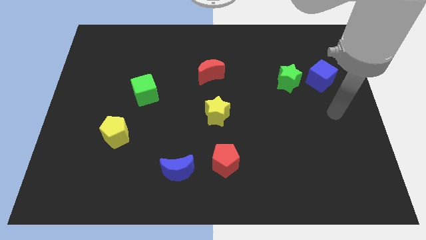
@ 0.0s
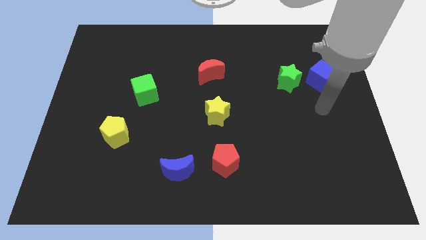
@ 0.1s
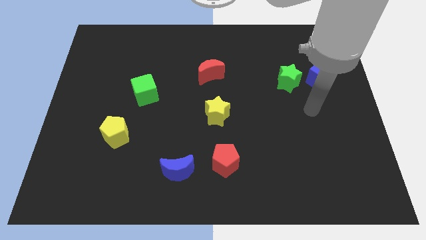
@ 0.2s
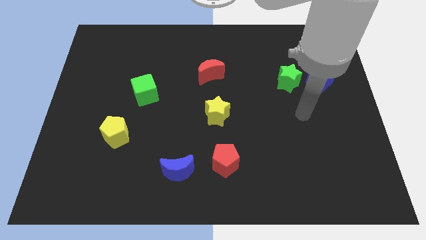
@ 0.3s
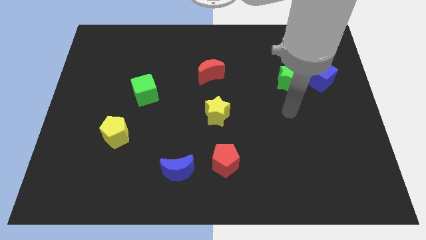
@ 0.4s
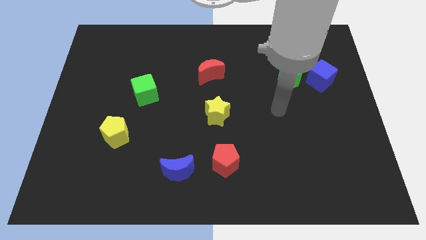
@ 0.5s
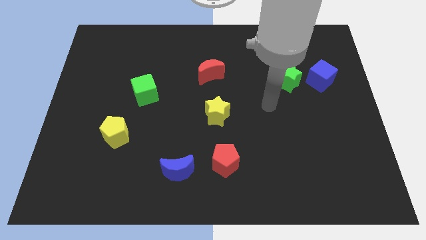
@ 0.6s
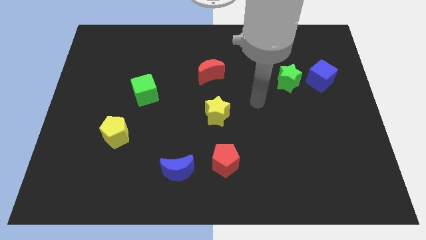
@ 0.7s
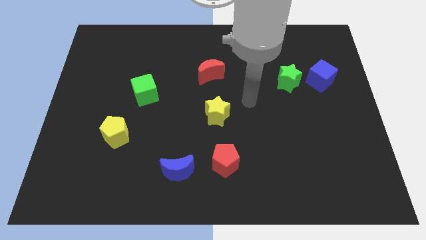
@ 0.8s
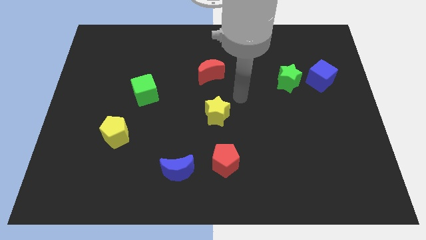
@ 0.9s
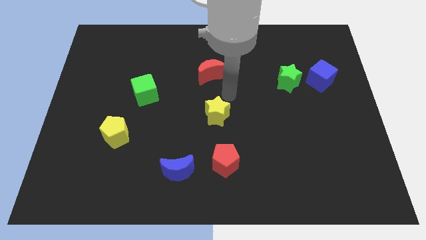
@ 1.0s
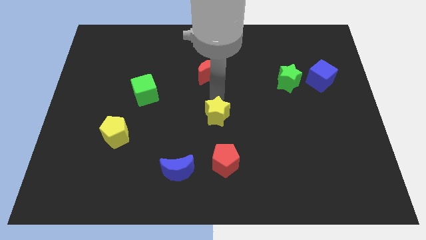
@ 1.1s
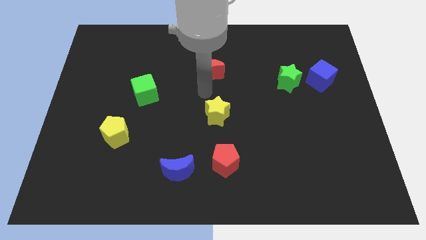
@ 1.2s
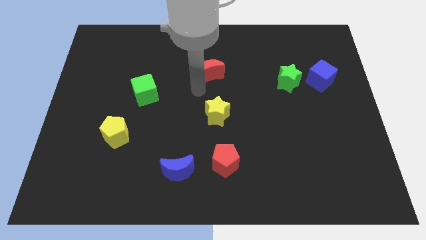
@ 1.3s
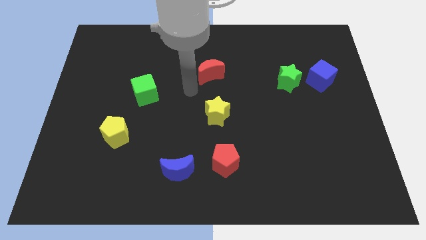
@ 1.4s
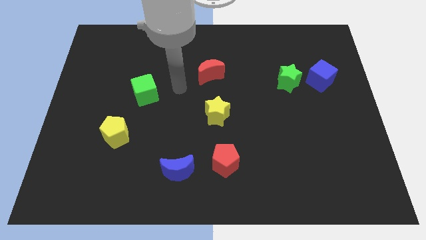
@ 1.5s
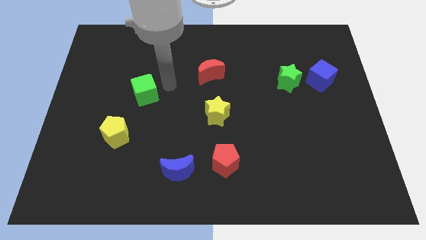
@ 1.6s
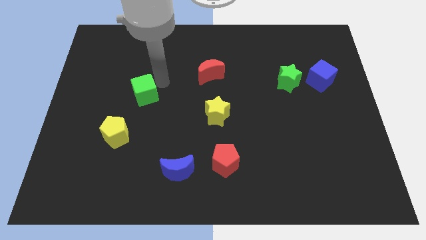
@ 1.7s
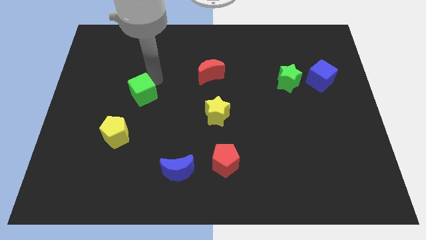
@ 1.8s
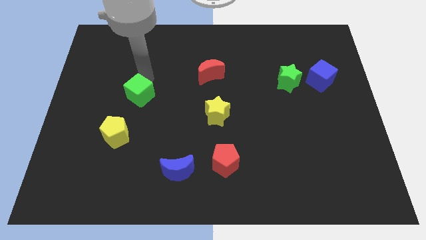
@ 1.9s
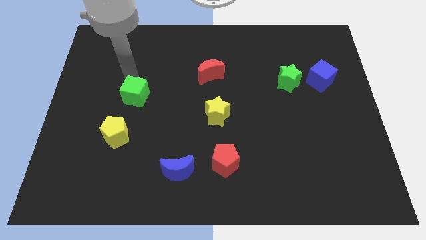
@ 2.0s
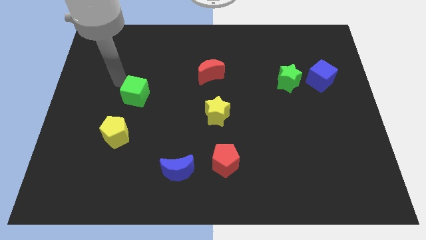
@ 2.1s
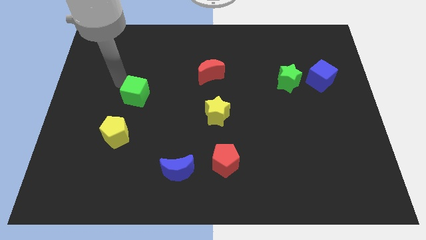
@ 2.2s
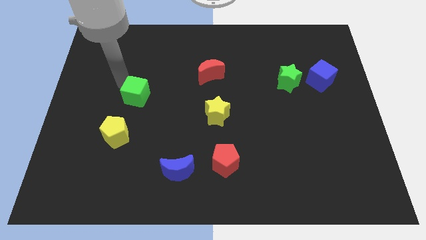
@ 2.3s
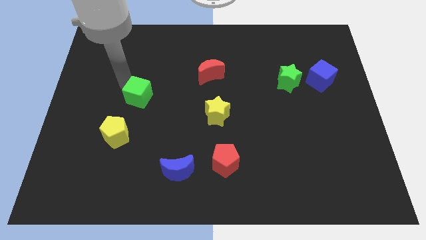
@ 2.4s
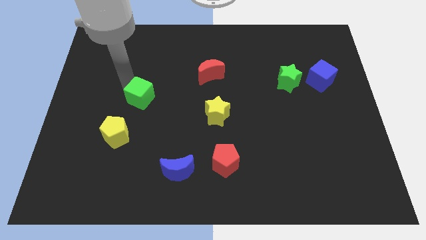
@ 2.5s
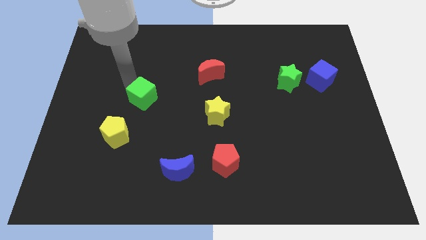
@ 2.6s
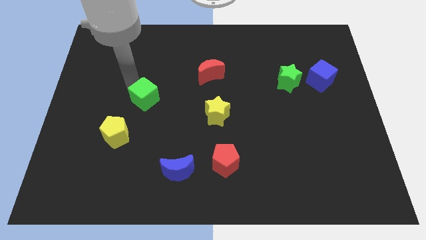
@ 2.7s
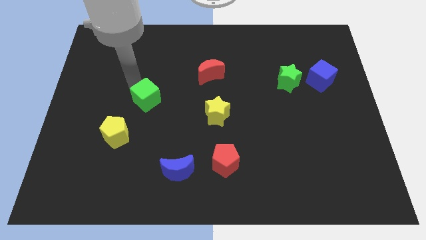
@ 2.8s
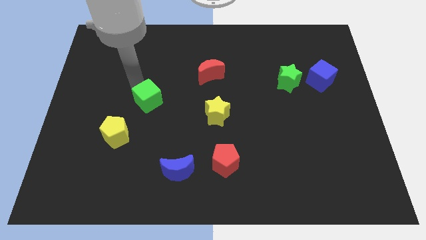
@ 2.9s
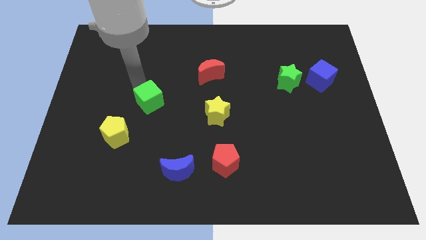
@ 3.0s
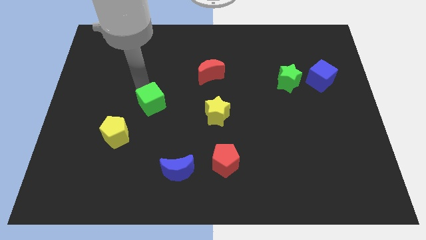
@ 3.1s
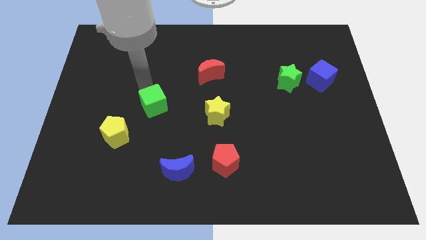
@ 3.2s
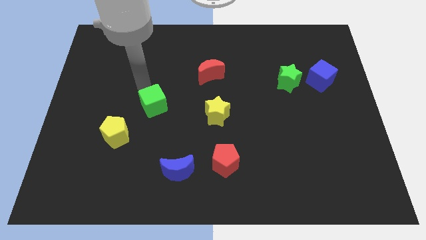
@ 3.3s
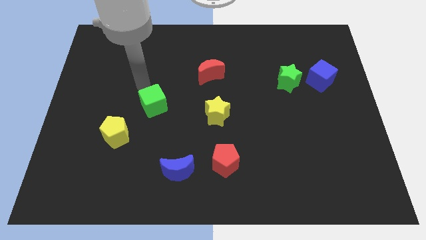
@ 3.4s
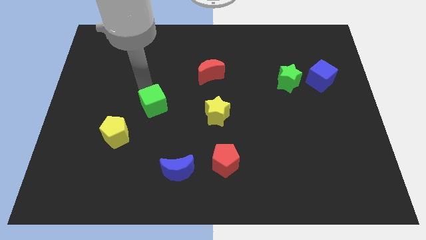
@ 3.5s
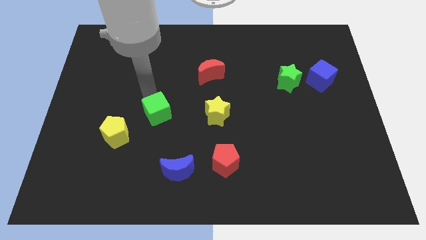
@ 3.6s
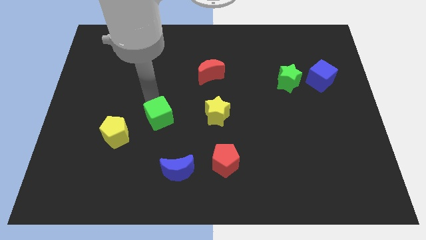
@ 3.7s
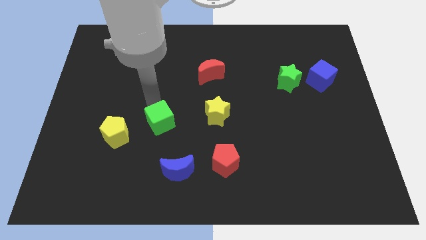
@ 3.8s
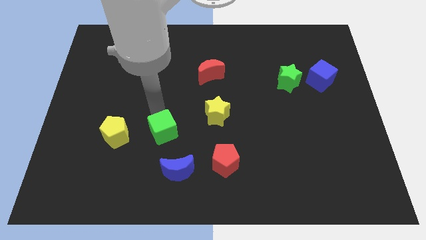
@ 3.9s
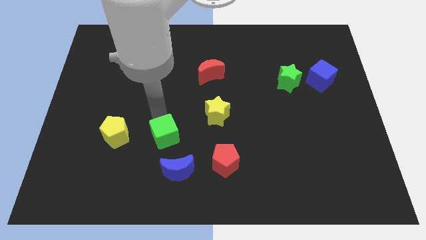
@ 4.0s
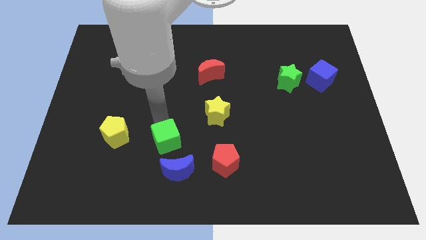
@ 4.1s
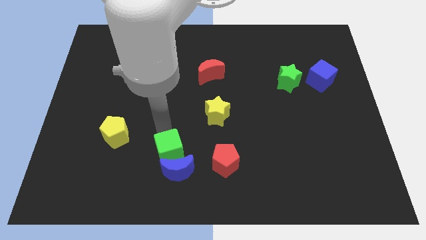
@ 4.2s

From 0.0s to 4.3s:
put the green cube next to the blue moon

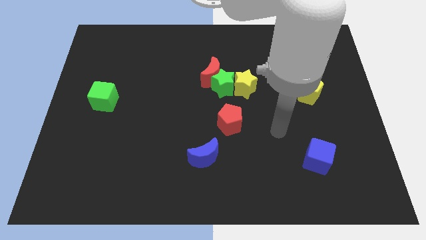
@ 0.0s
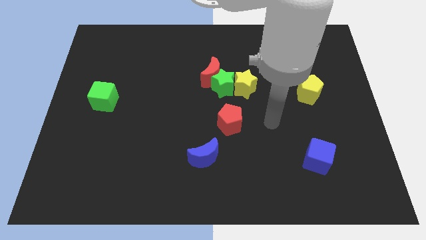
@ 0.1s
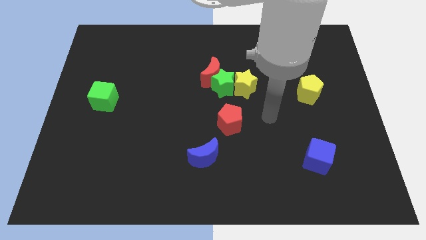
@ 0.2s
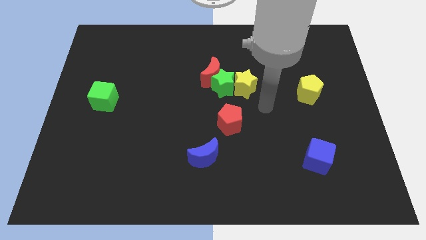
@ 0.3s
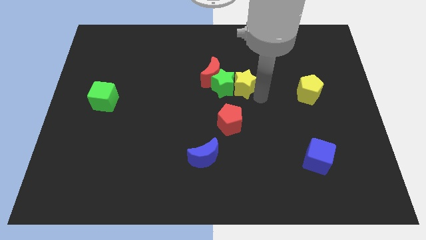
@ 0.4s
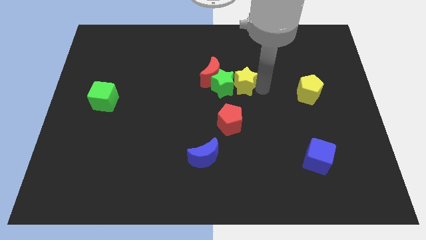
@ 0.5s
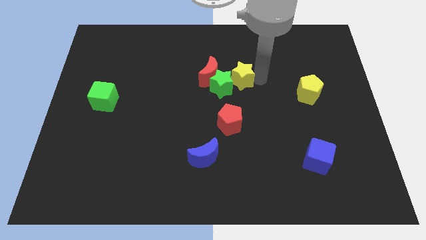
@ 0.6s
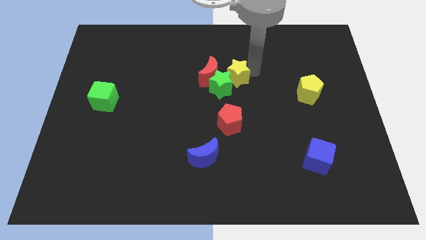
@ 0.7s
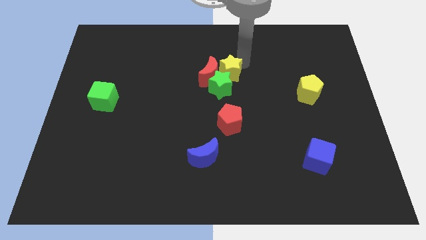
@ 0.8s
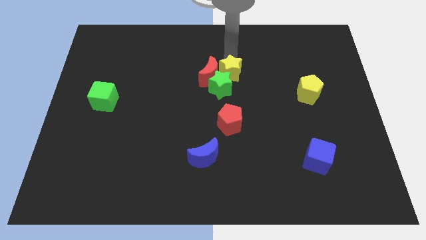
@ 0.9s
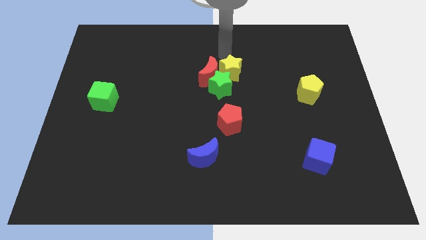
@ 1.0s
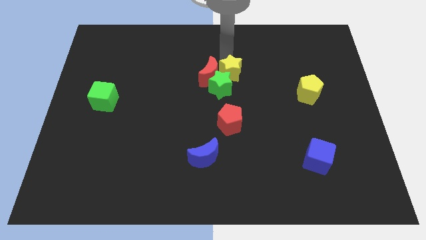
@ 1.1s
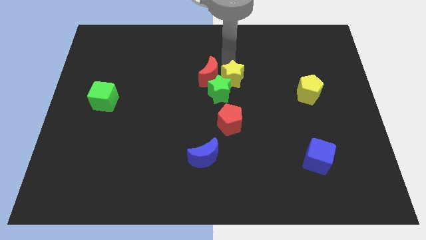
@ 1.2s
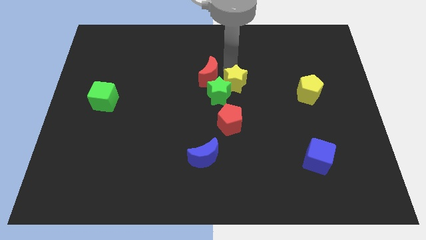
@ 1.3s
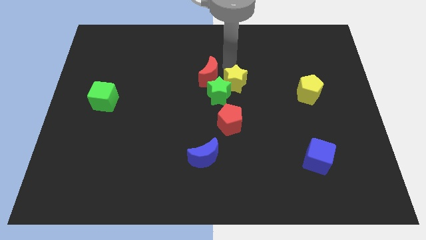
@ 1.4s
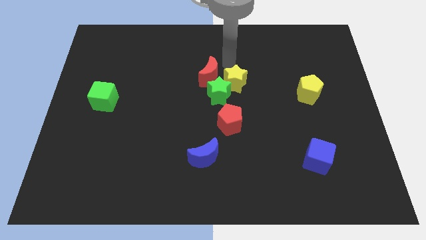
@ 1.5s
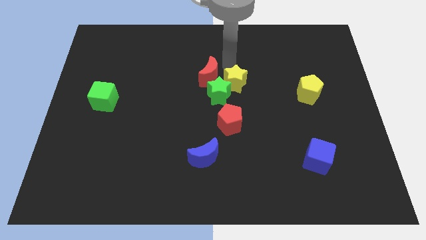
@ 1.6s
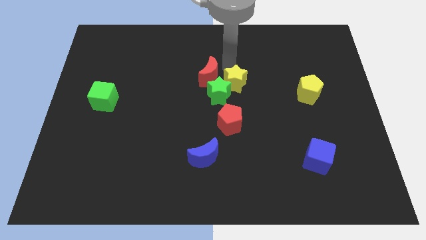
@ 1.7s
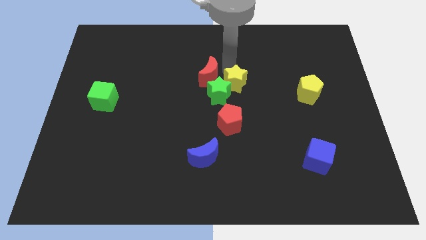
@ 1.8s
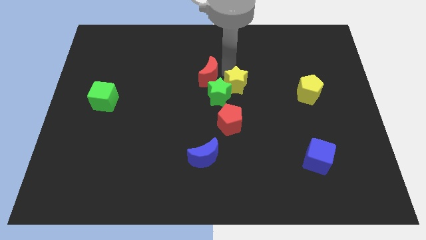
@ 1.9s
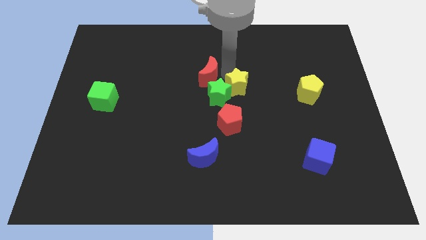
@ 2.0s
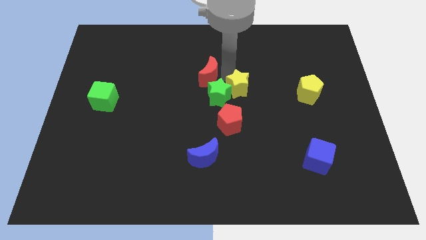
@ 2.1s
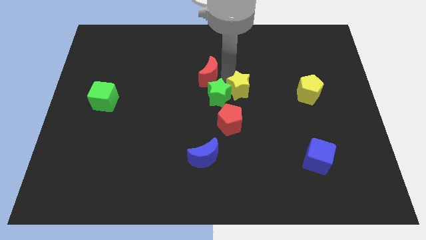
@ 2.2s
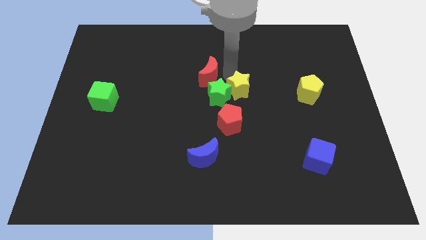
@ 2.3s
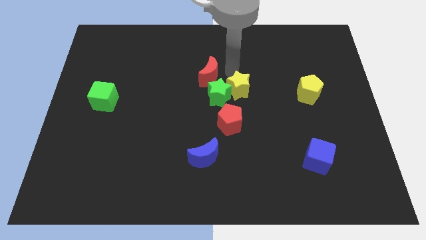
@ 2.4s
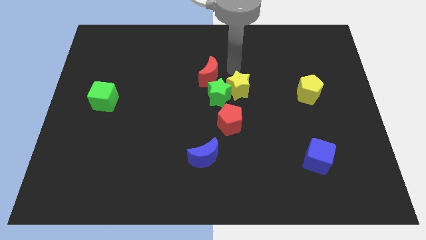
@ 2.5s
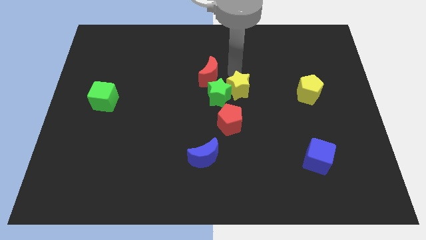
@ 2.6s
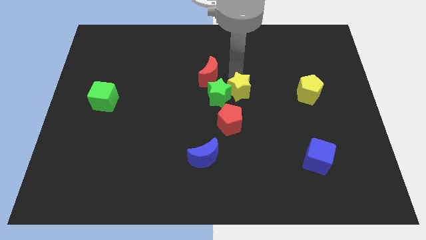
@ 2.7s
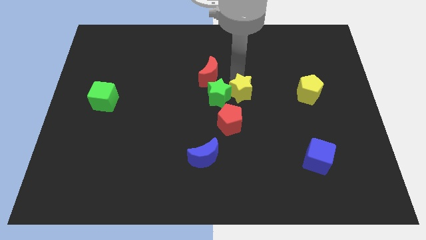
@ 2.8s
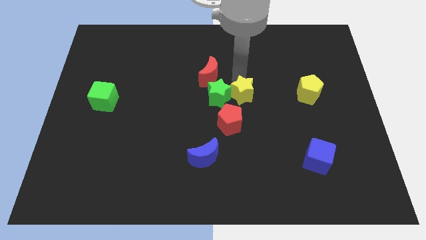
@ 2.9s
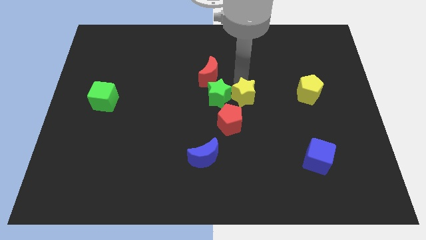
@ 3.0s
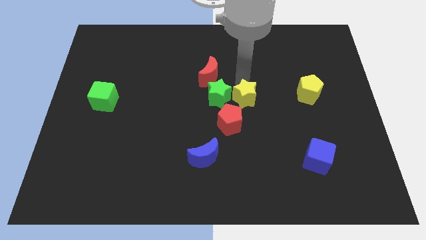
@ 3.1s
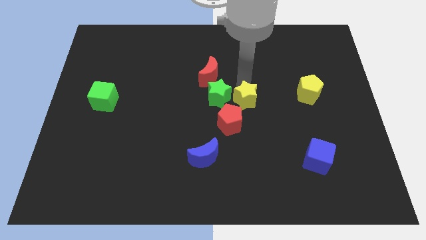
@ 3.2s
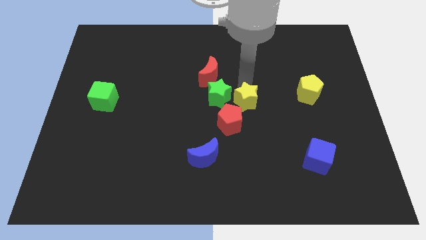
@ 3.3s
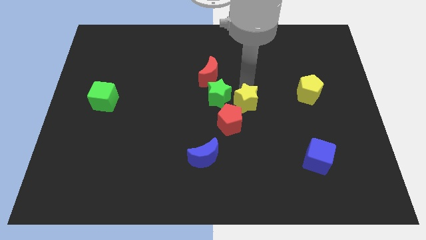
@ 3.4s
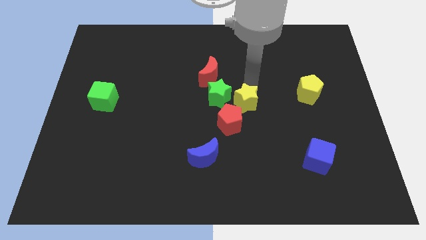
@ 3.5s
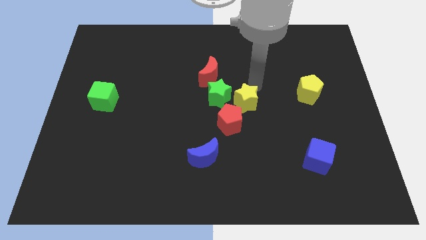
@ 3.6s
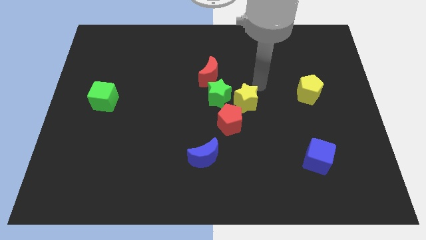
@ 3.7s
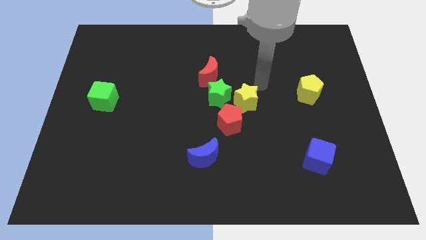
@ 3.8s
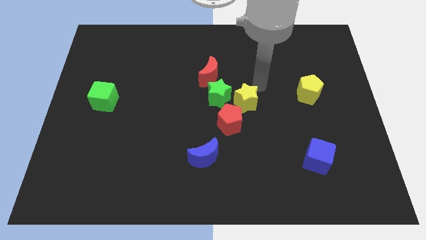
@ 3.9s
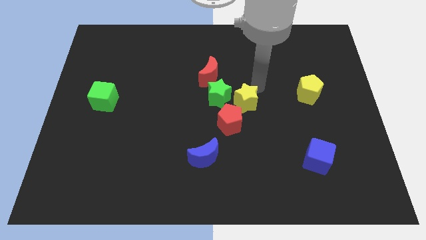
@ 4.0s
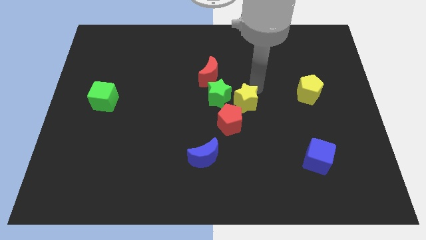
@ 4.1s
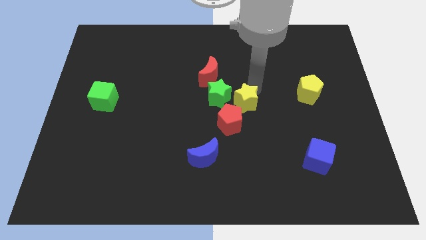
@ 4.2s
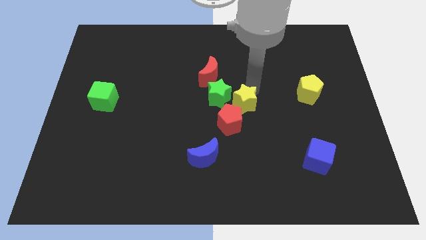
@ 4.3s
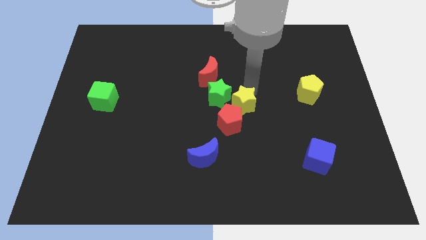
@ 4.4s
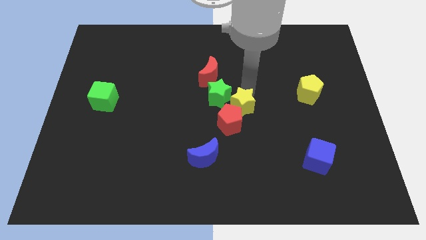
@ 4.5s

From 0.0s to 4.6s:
push the yellow star towards the red pentagon
